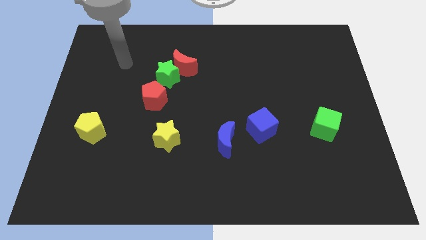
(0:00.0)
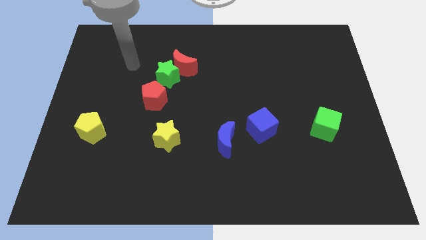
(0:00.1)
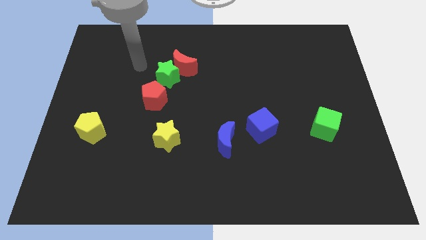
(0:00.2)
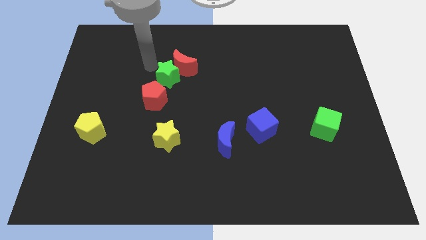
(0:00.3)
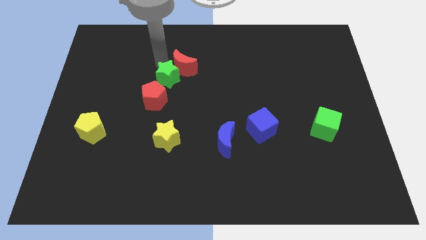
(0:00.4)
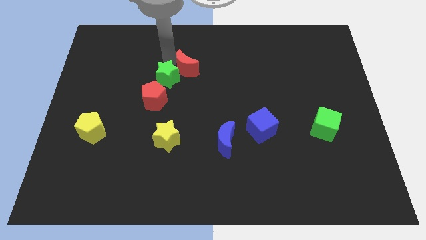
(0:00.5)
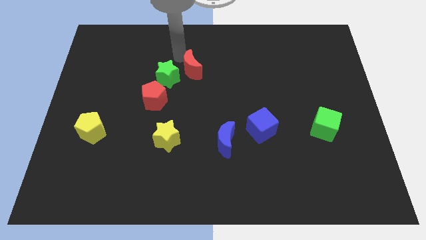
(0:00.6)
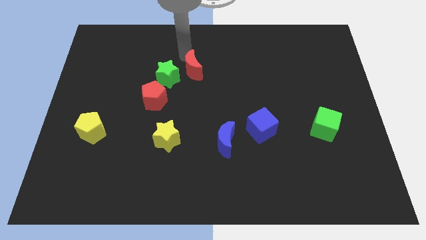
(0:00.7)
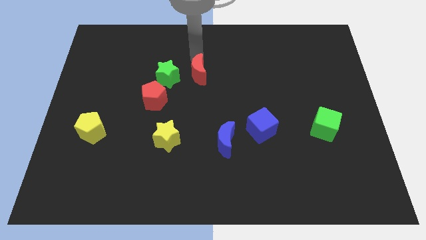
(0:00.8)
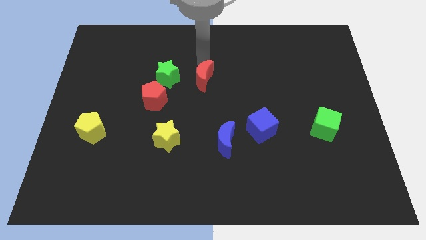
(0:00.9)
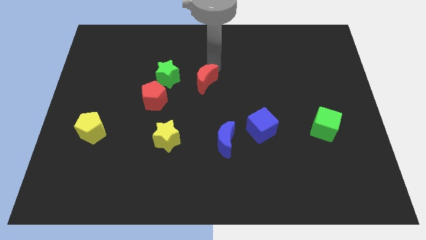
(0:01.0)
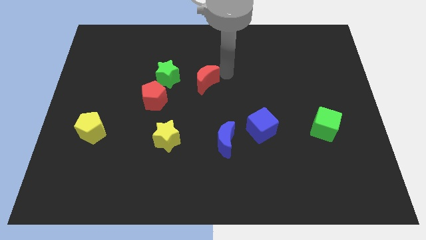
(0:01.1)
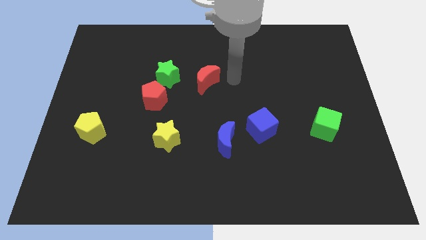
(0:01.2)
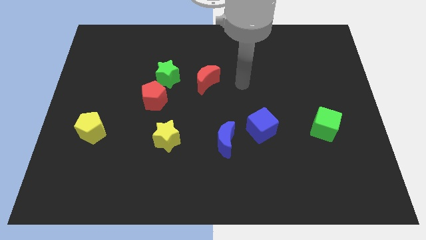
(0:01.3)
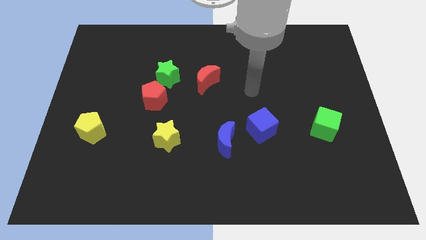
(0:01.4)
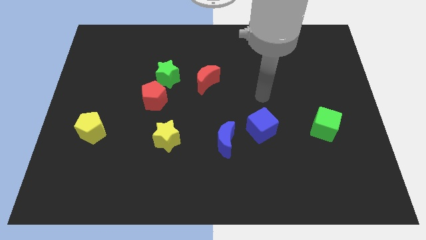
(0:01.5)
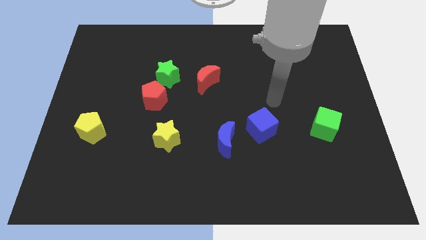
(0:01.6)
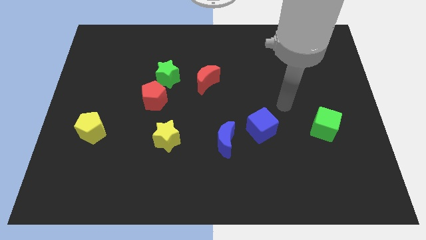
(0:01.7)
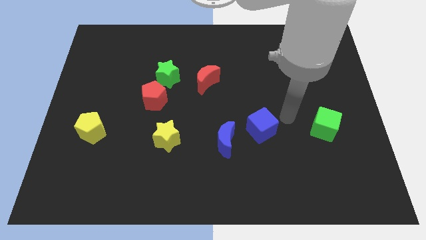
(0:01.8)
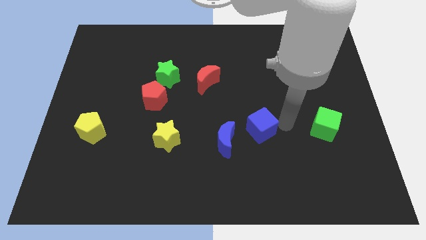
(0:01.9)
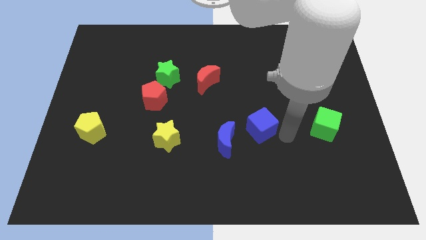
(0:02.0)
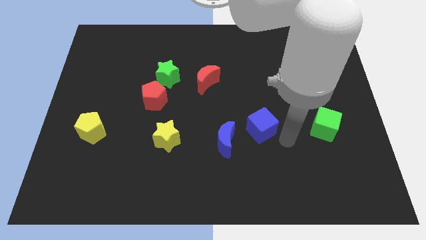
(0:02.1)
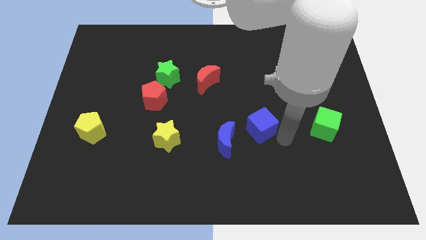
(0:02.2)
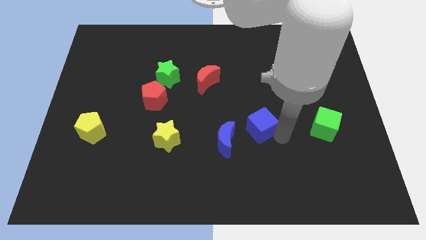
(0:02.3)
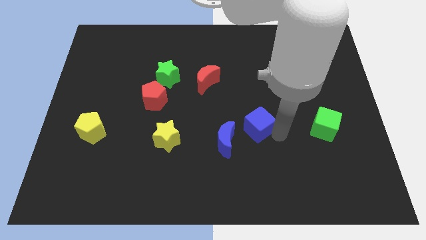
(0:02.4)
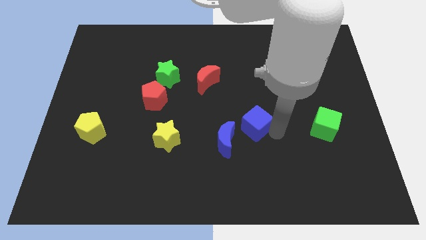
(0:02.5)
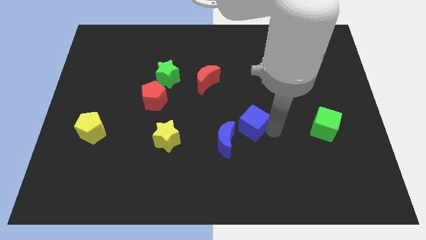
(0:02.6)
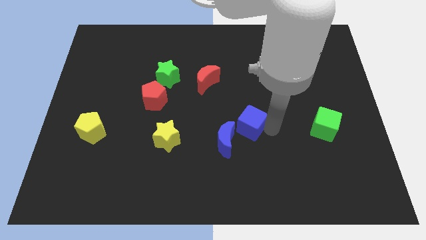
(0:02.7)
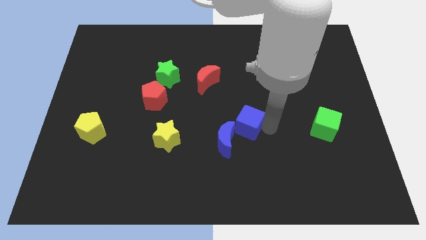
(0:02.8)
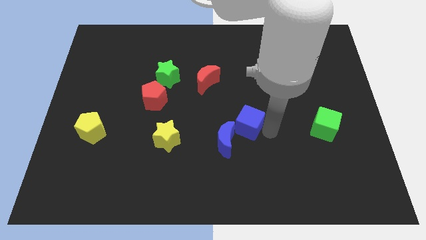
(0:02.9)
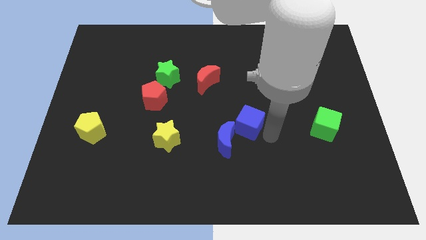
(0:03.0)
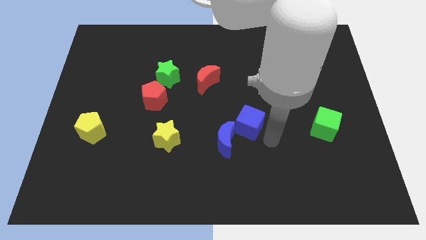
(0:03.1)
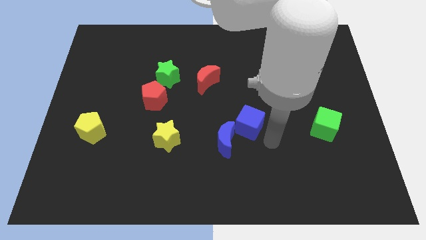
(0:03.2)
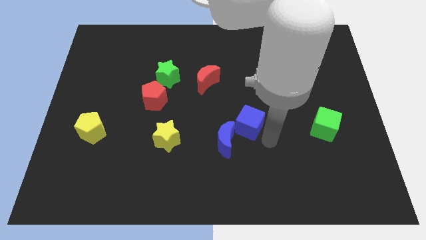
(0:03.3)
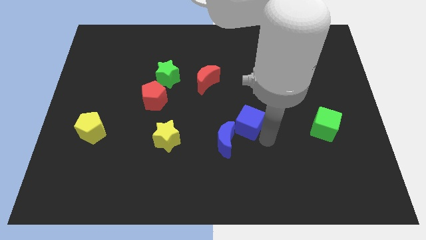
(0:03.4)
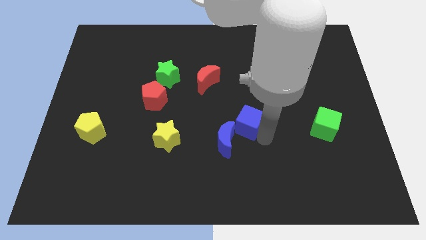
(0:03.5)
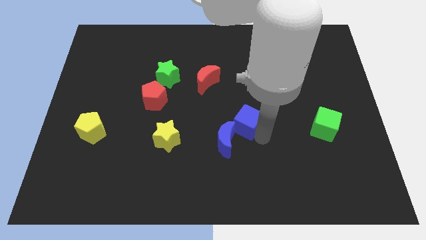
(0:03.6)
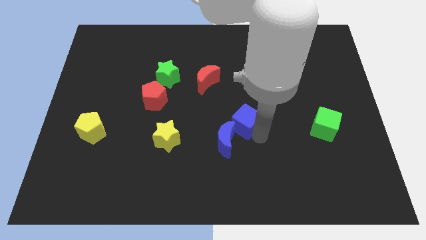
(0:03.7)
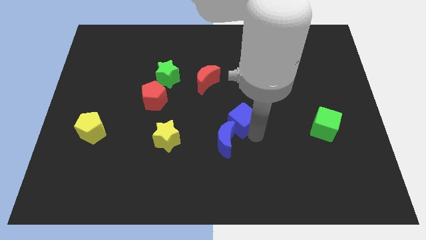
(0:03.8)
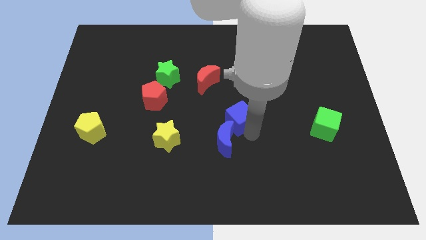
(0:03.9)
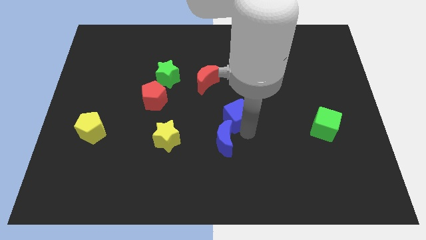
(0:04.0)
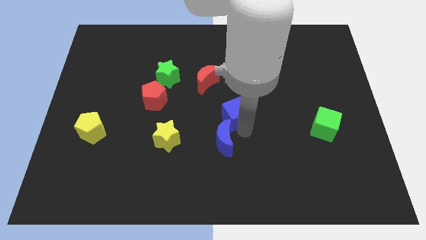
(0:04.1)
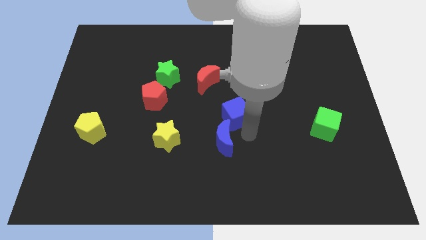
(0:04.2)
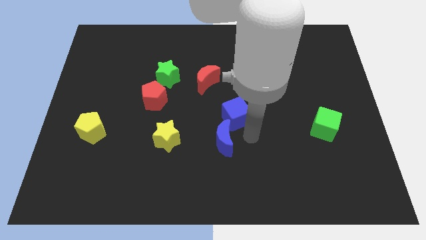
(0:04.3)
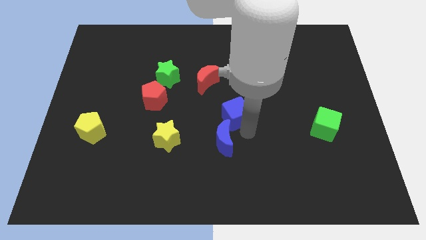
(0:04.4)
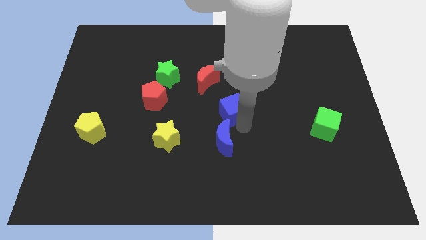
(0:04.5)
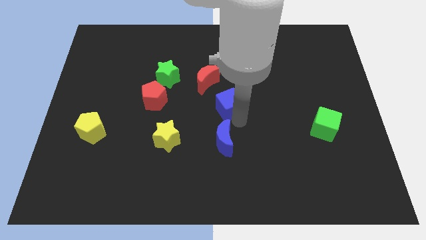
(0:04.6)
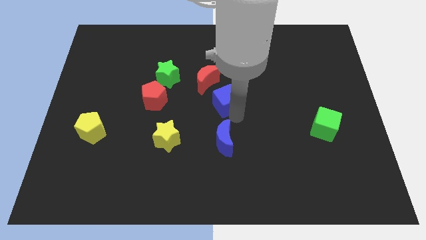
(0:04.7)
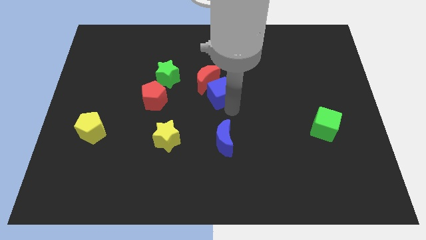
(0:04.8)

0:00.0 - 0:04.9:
slide the blue cube towards the red moon

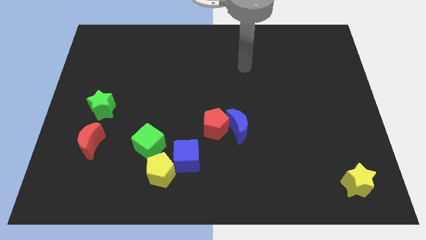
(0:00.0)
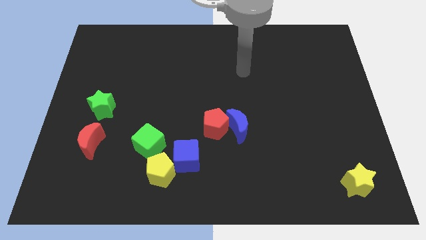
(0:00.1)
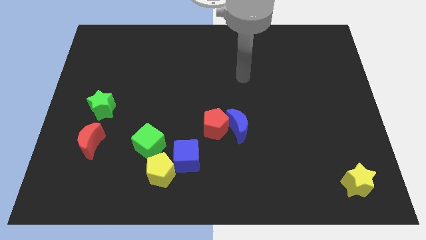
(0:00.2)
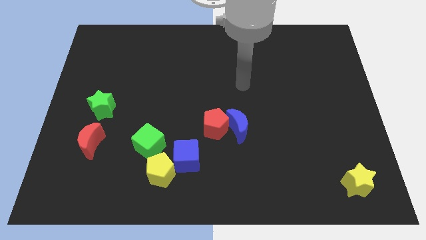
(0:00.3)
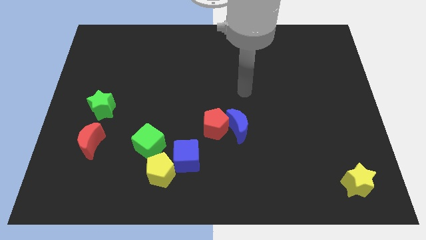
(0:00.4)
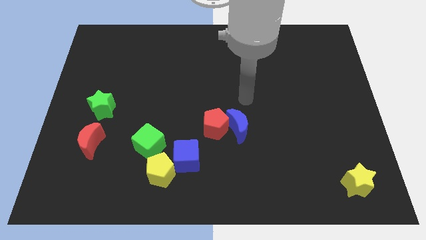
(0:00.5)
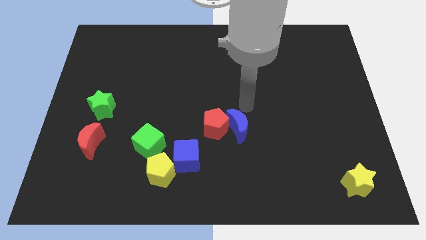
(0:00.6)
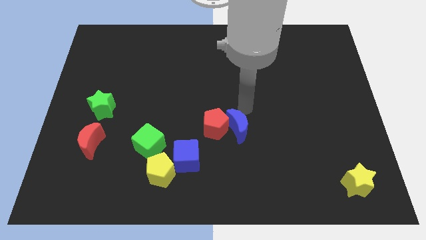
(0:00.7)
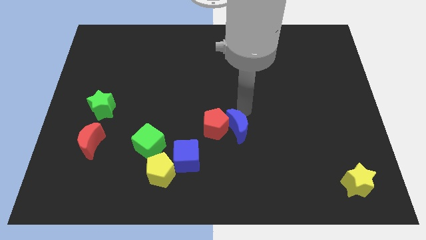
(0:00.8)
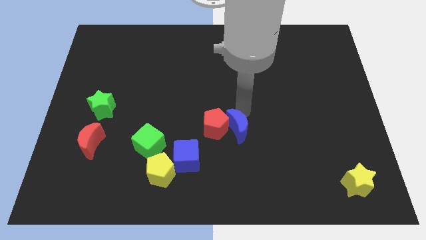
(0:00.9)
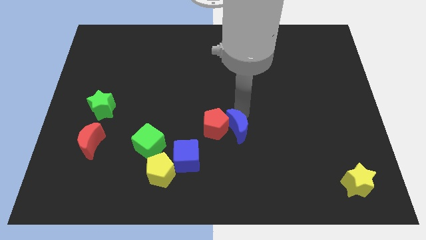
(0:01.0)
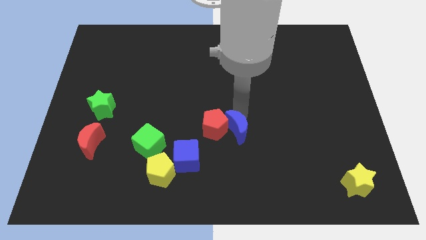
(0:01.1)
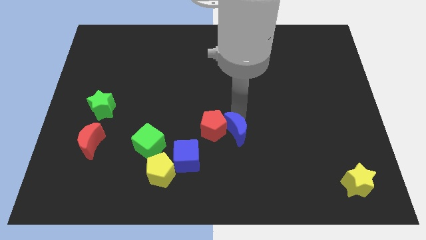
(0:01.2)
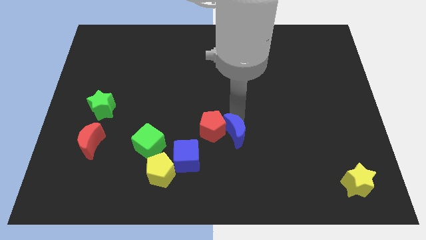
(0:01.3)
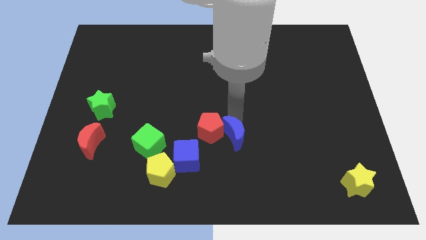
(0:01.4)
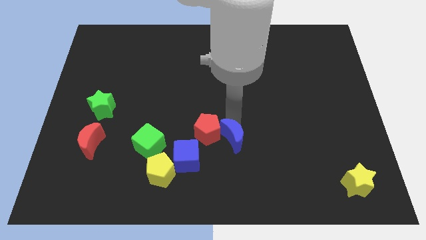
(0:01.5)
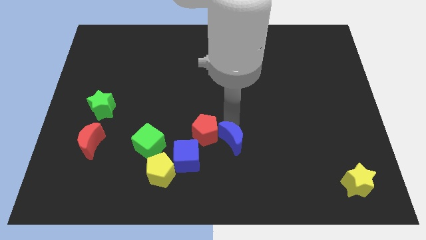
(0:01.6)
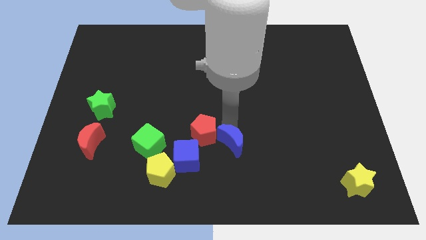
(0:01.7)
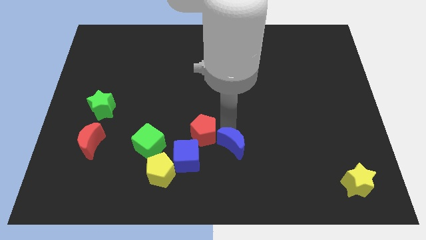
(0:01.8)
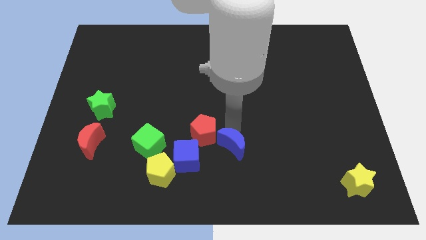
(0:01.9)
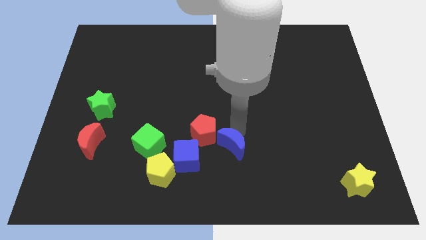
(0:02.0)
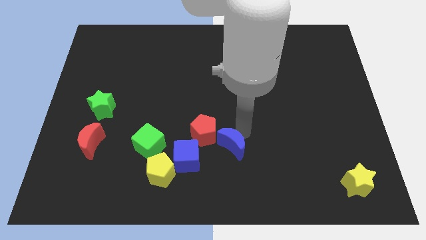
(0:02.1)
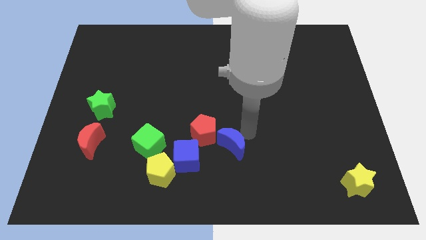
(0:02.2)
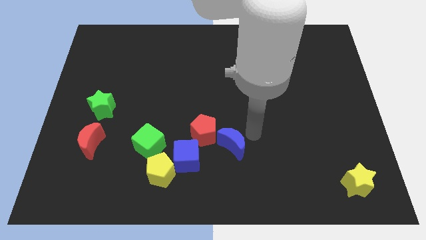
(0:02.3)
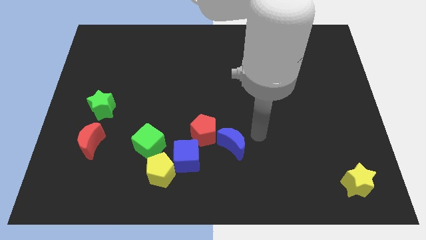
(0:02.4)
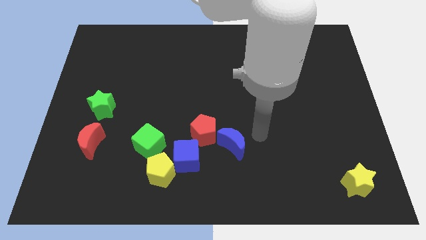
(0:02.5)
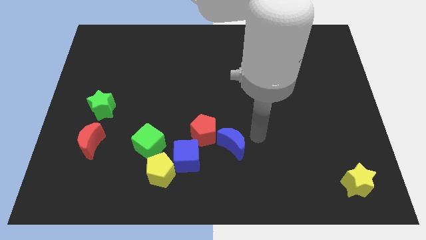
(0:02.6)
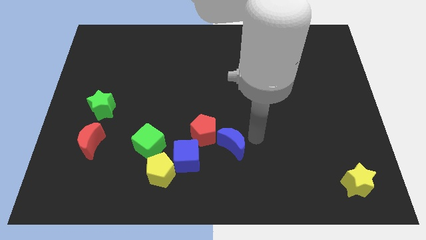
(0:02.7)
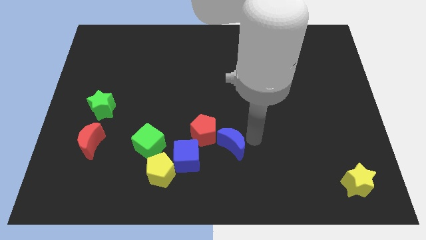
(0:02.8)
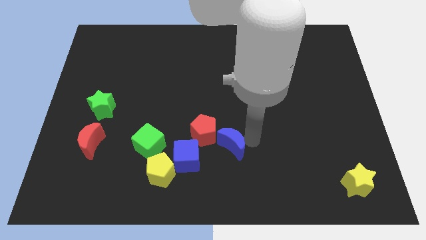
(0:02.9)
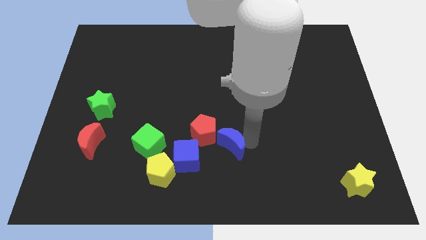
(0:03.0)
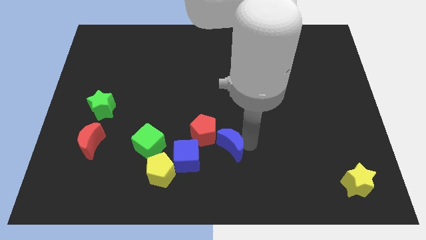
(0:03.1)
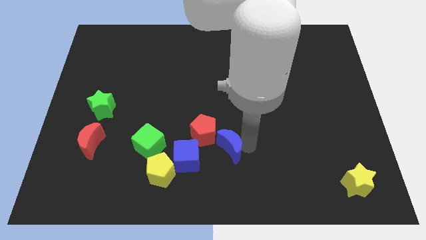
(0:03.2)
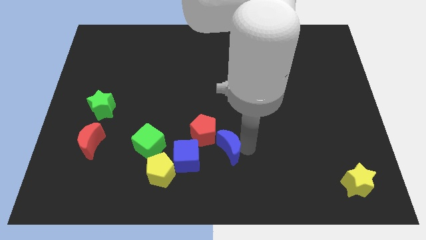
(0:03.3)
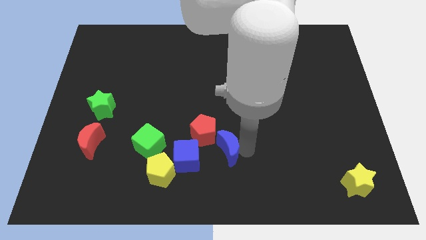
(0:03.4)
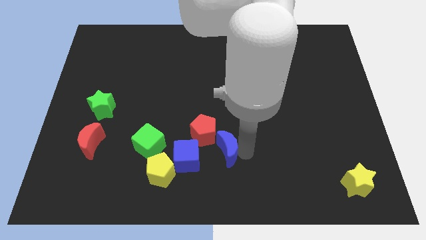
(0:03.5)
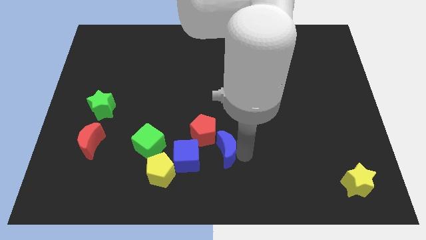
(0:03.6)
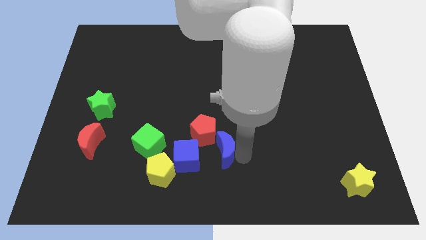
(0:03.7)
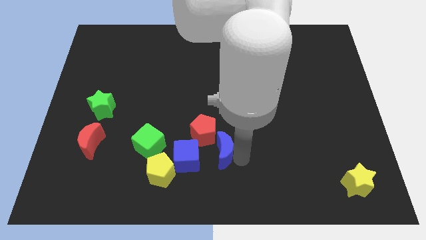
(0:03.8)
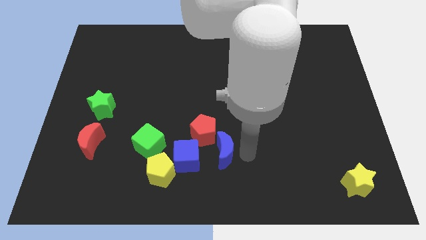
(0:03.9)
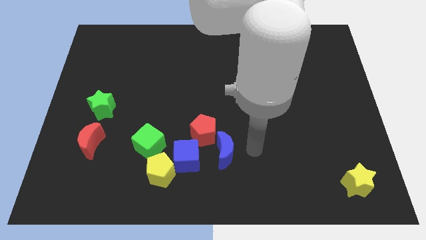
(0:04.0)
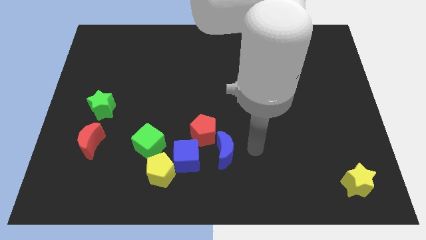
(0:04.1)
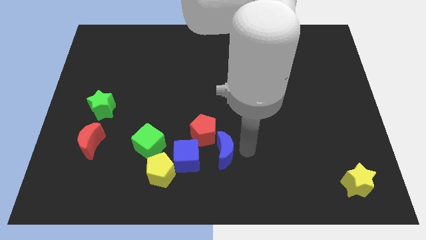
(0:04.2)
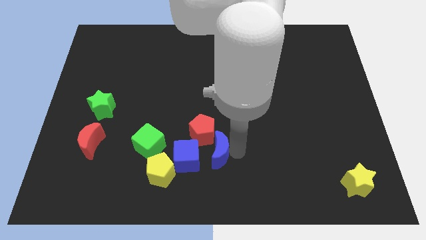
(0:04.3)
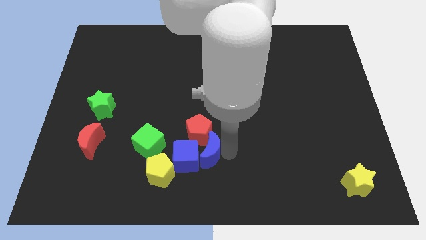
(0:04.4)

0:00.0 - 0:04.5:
slide the blue moon towards the blue cube
